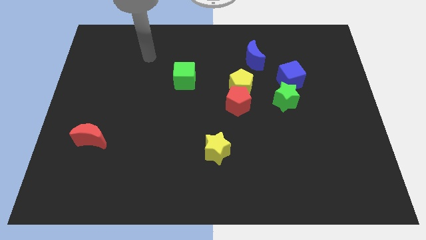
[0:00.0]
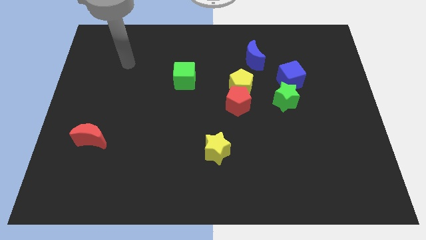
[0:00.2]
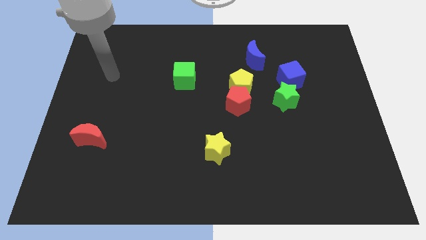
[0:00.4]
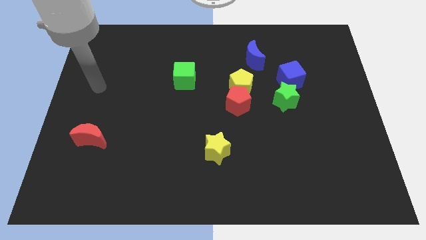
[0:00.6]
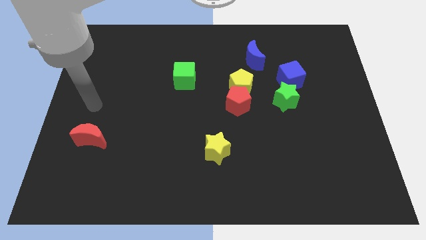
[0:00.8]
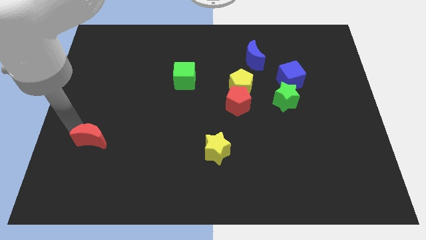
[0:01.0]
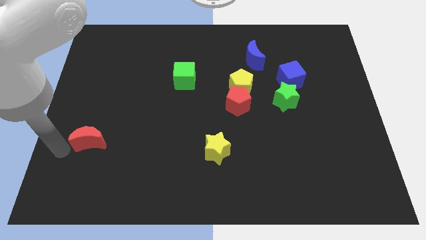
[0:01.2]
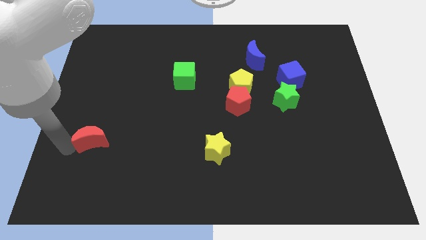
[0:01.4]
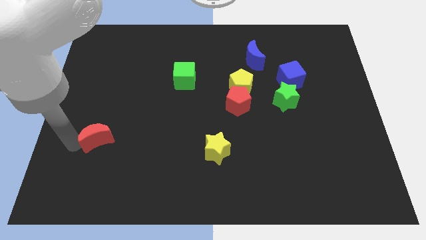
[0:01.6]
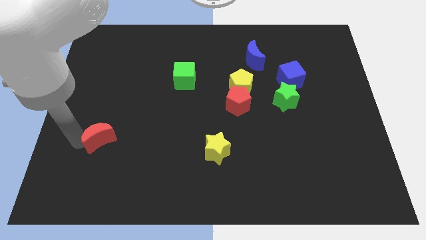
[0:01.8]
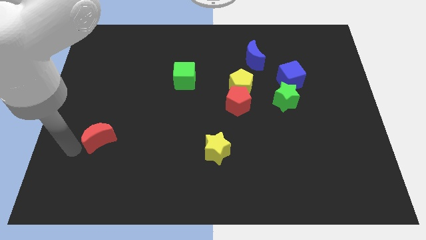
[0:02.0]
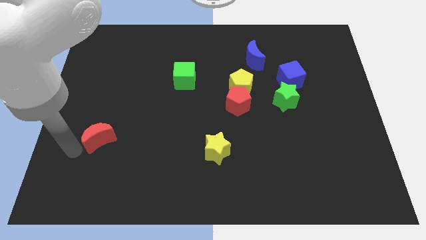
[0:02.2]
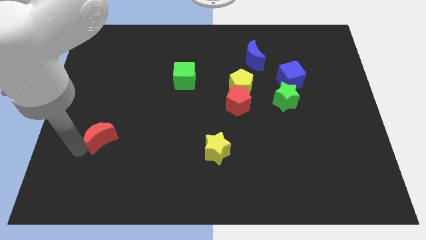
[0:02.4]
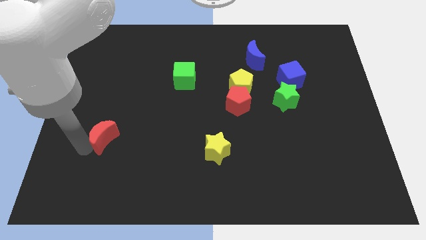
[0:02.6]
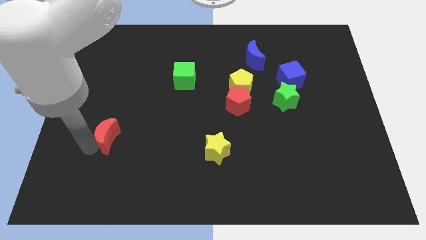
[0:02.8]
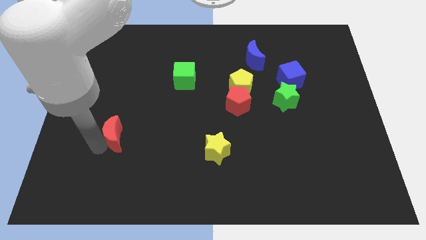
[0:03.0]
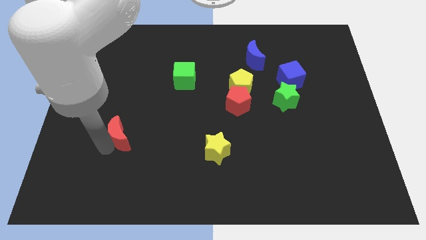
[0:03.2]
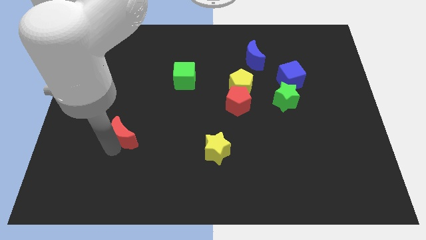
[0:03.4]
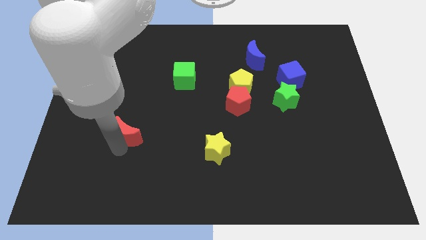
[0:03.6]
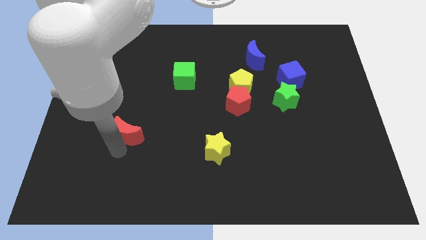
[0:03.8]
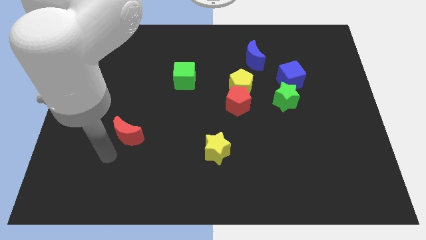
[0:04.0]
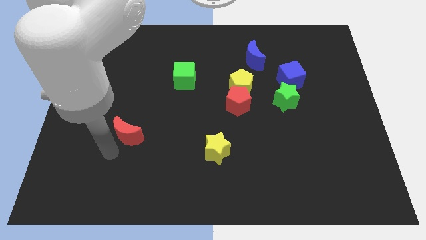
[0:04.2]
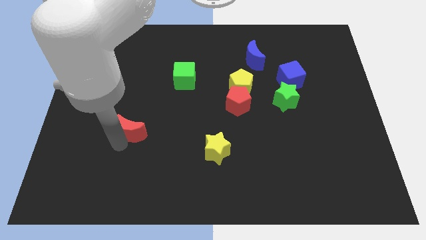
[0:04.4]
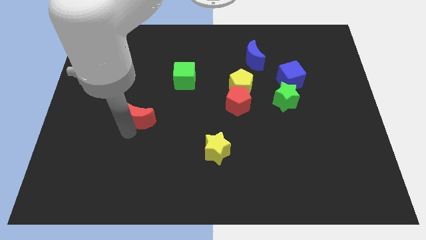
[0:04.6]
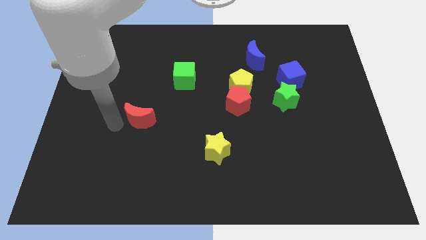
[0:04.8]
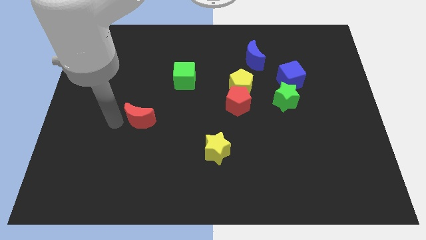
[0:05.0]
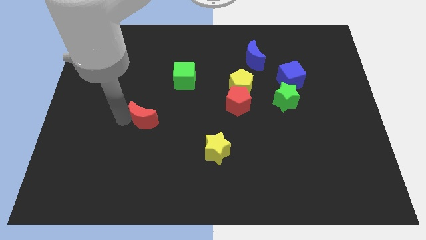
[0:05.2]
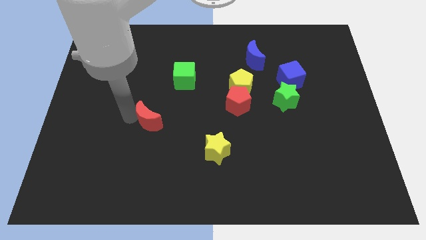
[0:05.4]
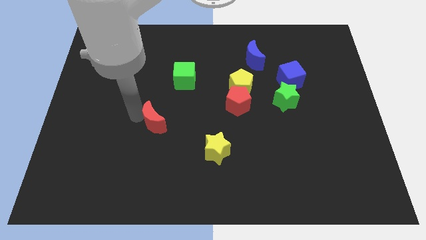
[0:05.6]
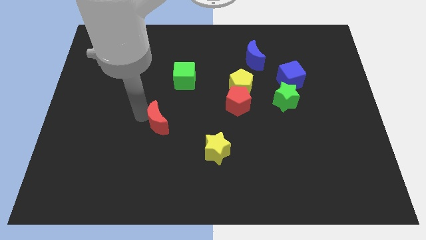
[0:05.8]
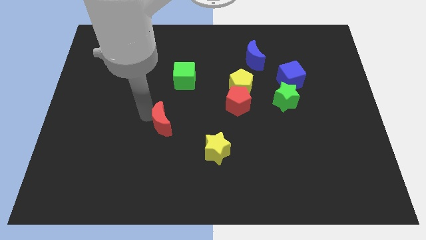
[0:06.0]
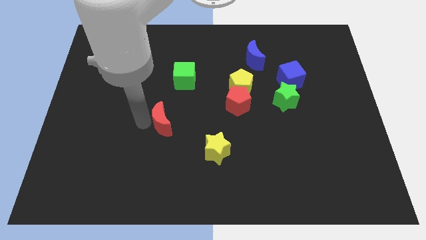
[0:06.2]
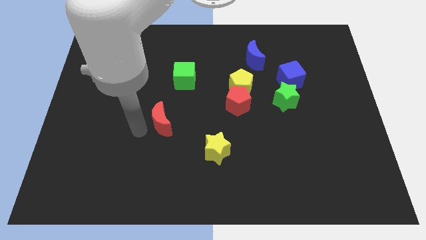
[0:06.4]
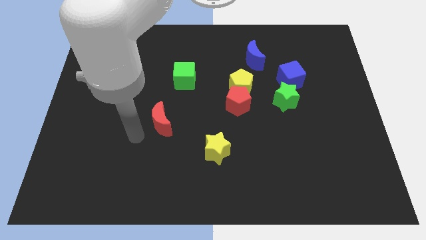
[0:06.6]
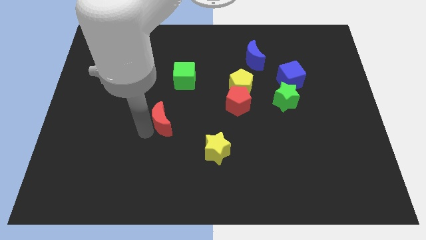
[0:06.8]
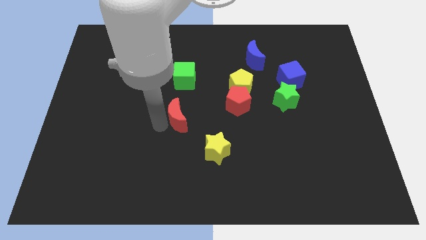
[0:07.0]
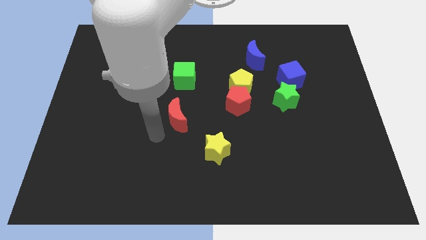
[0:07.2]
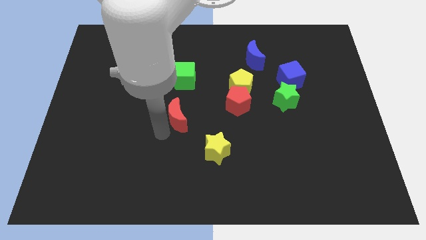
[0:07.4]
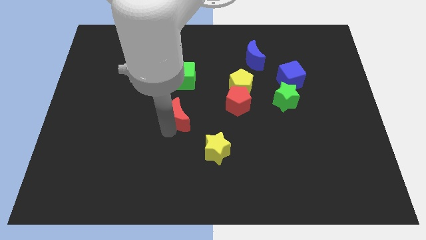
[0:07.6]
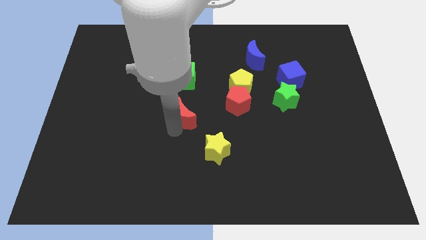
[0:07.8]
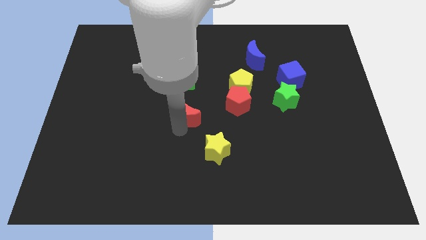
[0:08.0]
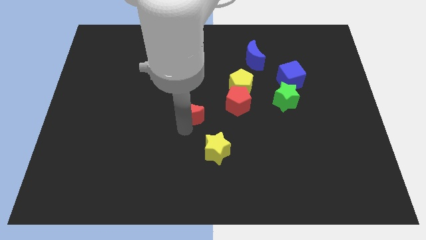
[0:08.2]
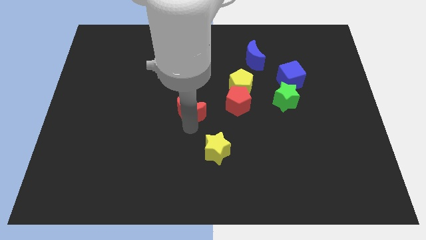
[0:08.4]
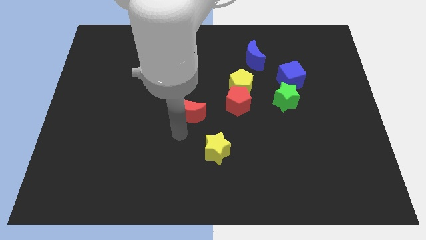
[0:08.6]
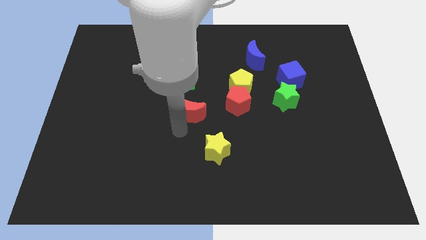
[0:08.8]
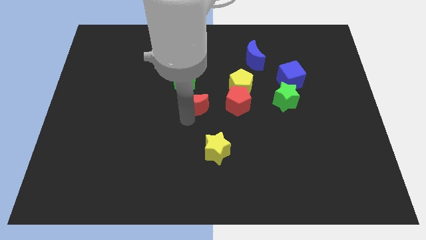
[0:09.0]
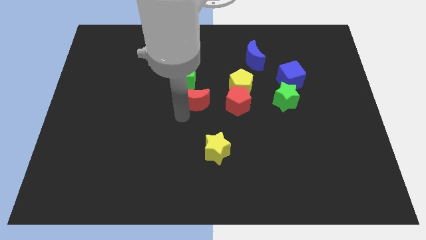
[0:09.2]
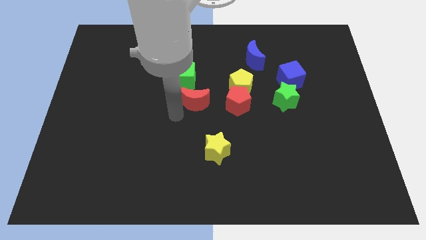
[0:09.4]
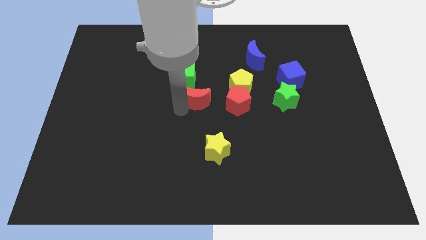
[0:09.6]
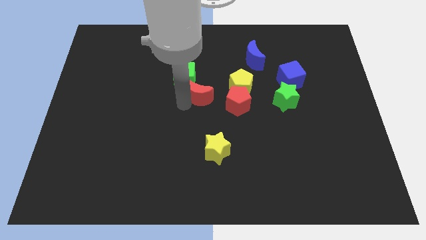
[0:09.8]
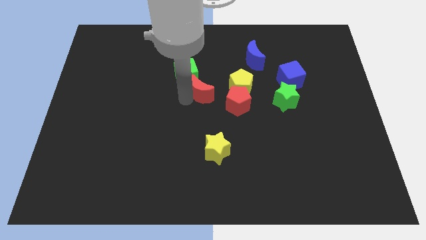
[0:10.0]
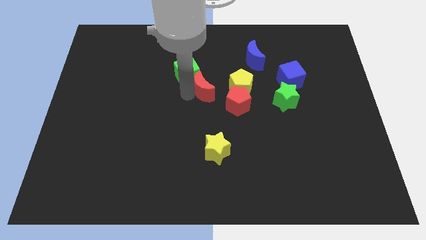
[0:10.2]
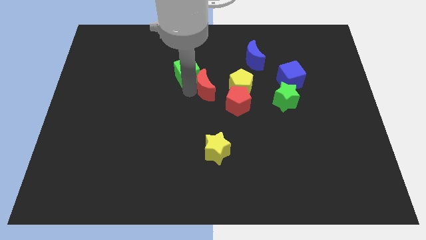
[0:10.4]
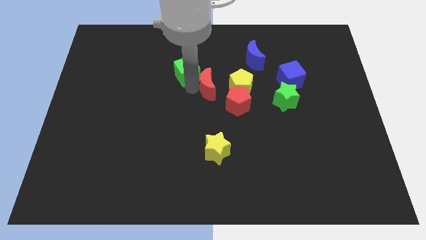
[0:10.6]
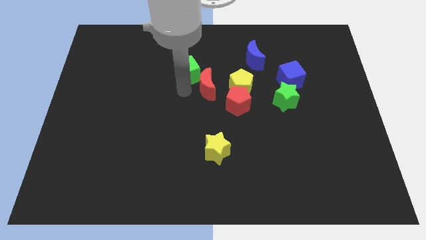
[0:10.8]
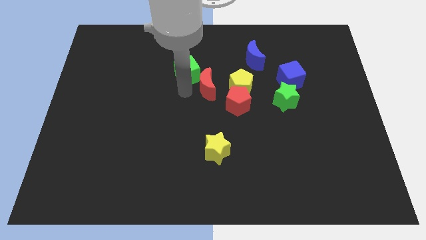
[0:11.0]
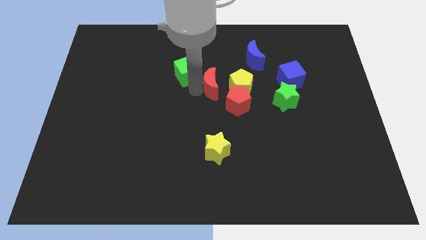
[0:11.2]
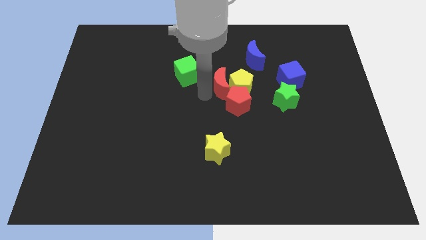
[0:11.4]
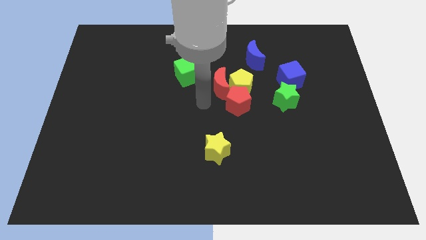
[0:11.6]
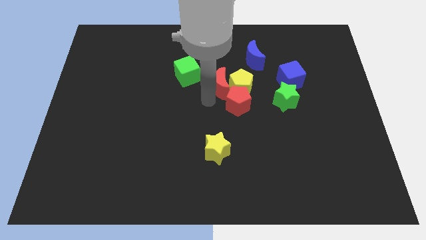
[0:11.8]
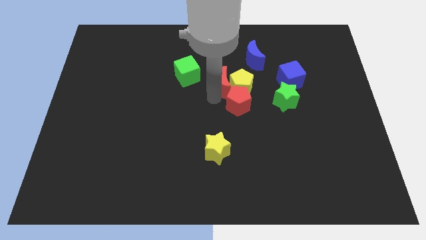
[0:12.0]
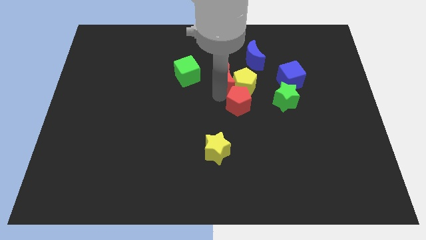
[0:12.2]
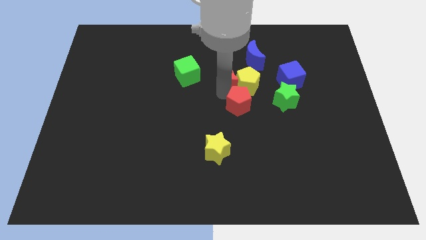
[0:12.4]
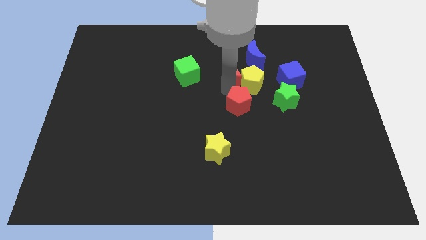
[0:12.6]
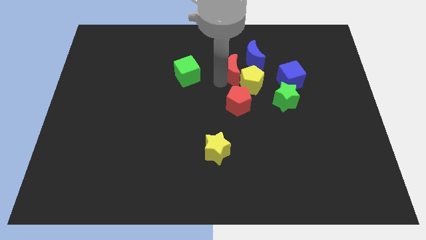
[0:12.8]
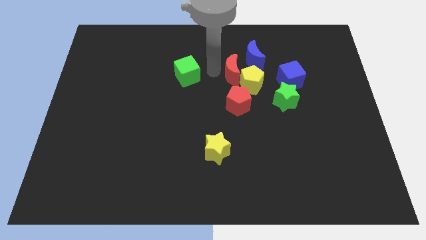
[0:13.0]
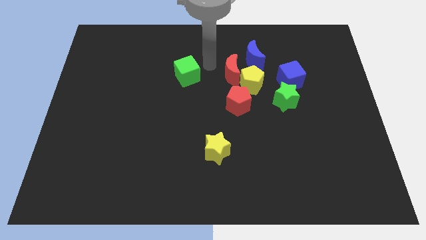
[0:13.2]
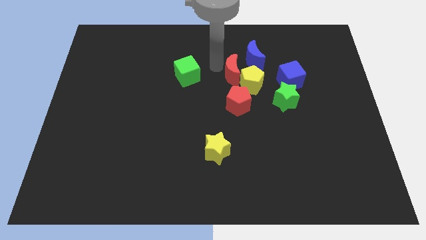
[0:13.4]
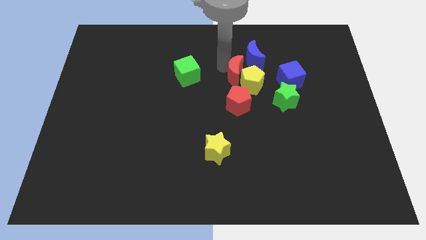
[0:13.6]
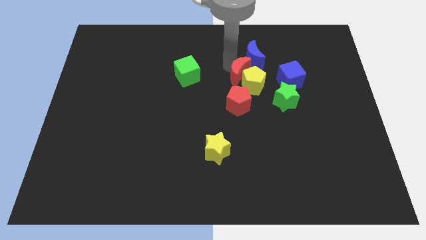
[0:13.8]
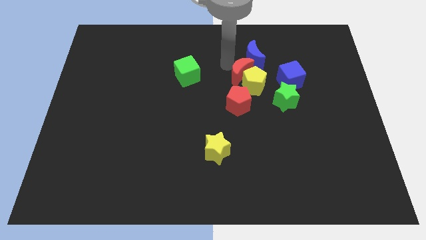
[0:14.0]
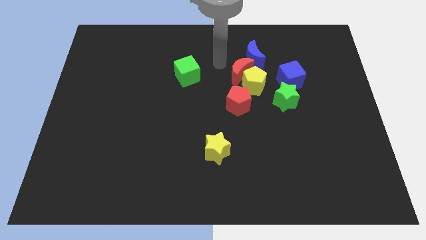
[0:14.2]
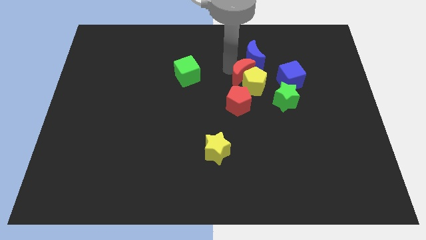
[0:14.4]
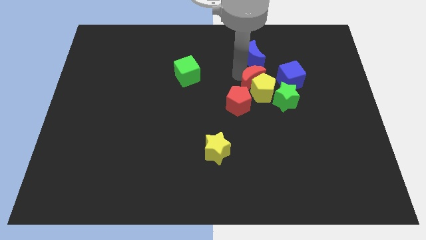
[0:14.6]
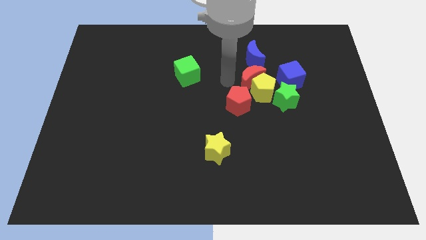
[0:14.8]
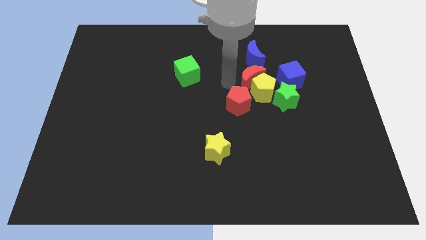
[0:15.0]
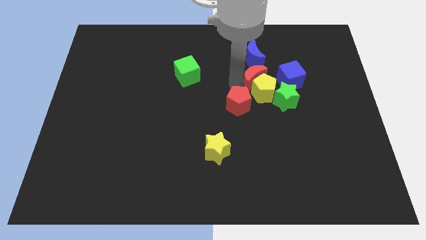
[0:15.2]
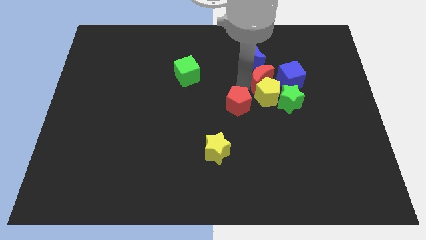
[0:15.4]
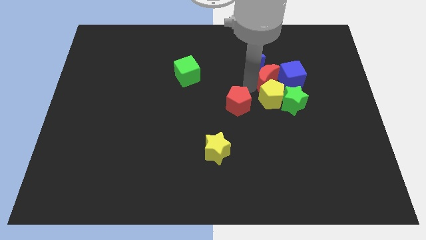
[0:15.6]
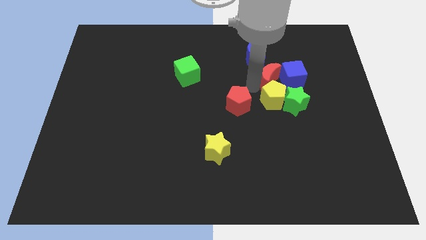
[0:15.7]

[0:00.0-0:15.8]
slide the red moon towards the blue cube

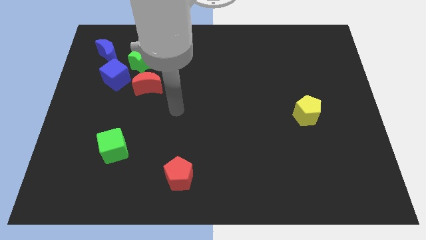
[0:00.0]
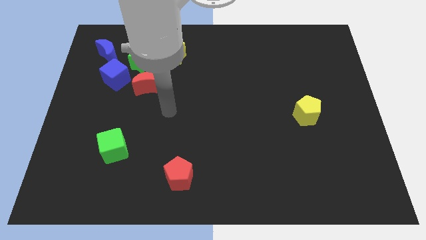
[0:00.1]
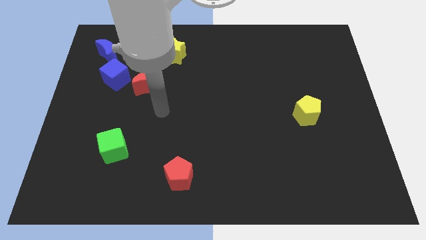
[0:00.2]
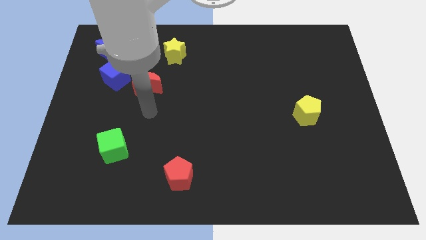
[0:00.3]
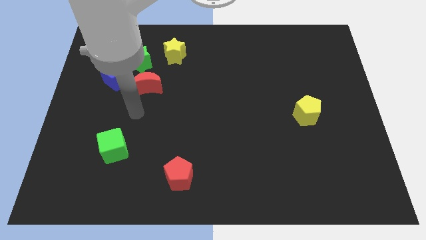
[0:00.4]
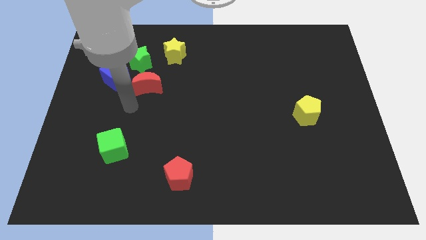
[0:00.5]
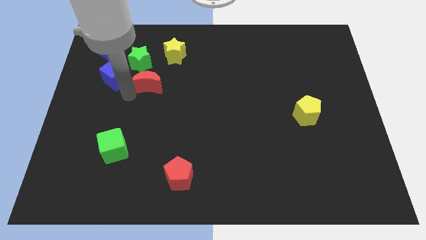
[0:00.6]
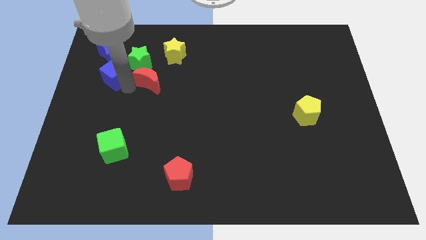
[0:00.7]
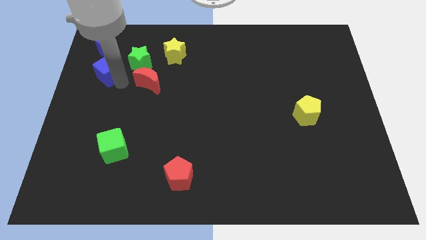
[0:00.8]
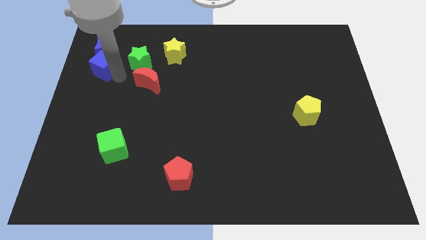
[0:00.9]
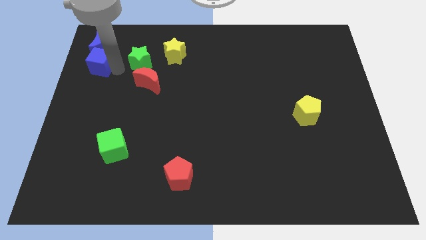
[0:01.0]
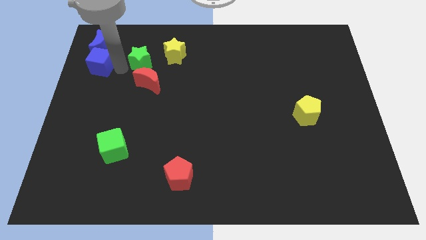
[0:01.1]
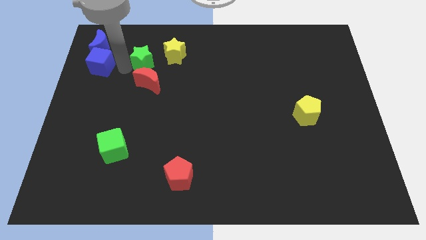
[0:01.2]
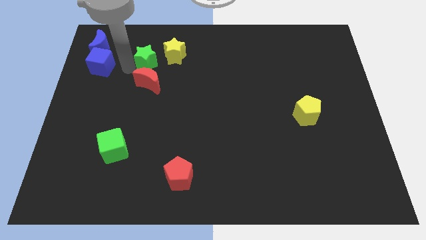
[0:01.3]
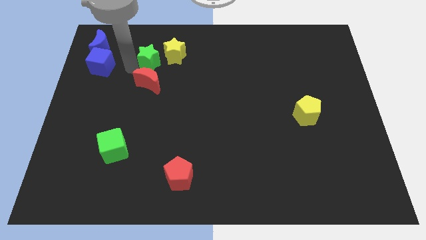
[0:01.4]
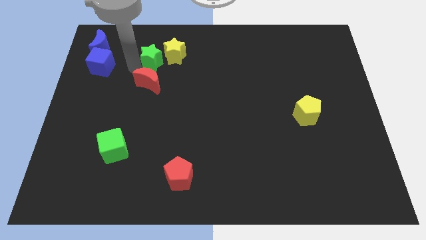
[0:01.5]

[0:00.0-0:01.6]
move the green star close to the yellow star
